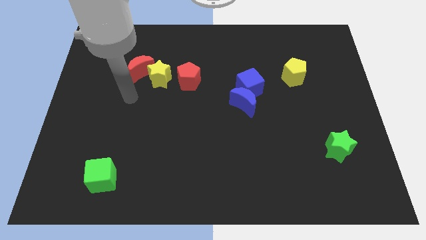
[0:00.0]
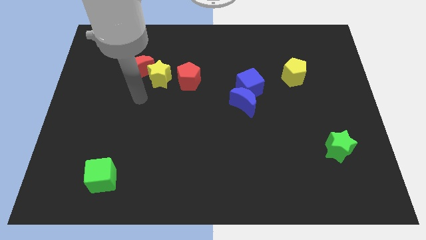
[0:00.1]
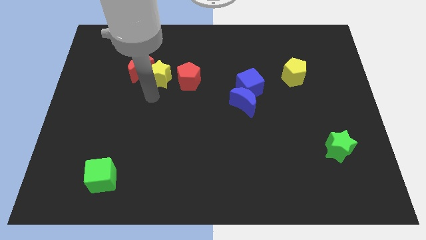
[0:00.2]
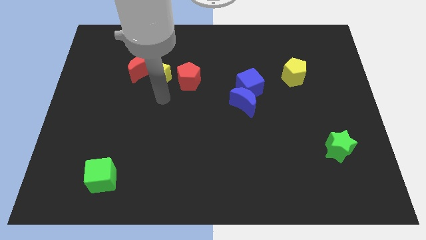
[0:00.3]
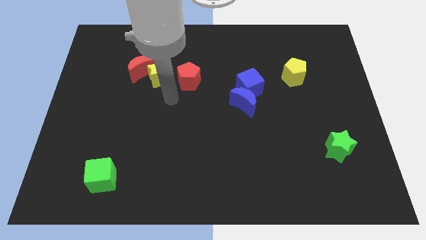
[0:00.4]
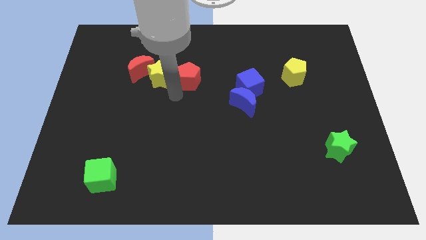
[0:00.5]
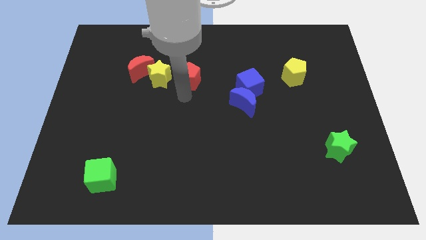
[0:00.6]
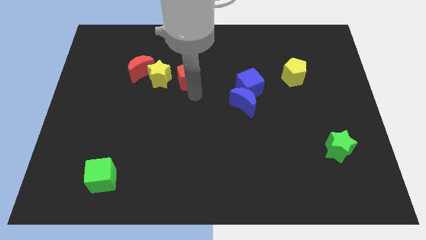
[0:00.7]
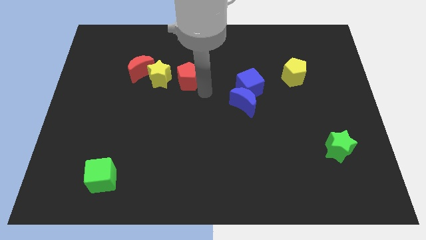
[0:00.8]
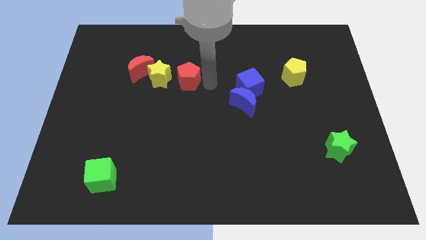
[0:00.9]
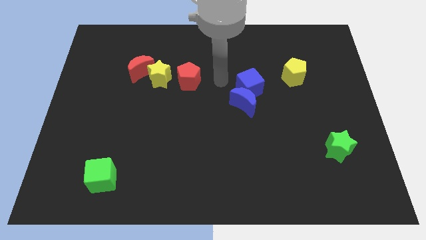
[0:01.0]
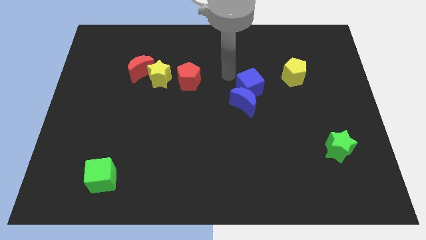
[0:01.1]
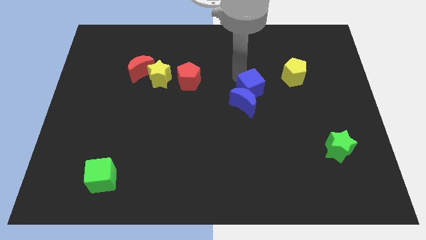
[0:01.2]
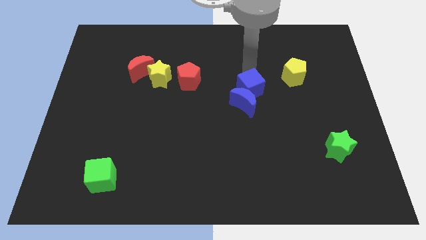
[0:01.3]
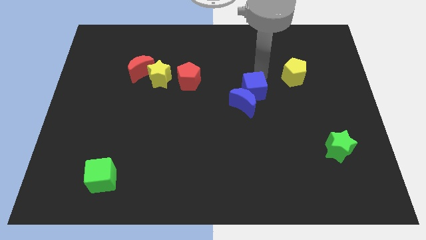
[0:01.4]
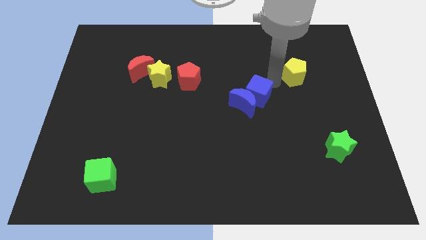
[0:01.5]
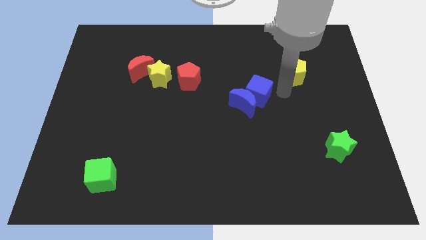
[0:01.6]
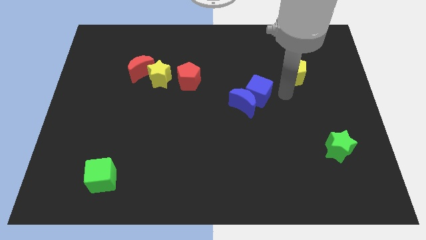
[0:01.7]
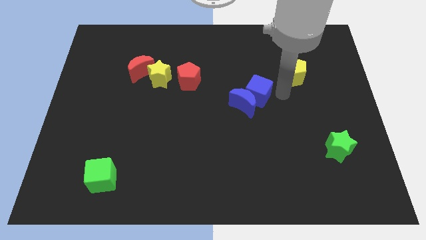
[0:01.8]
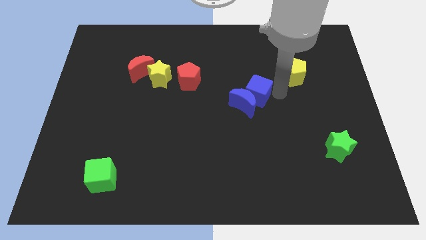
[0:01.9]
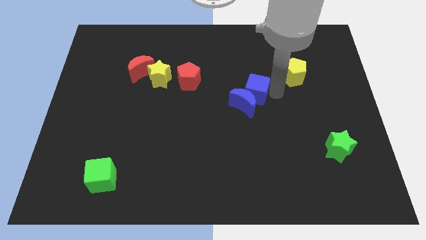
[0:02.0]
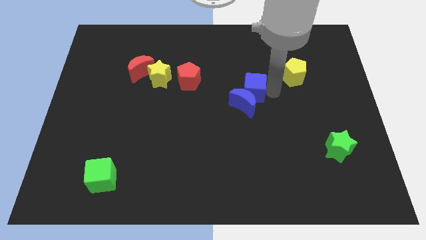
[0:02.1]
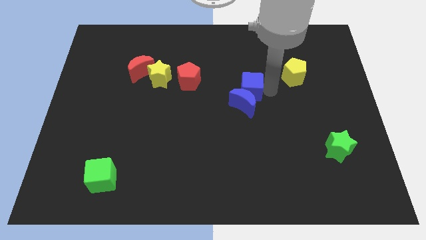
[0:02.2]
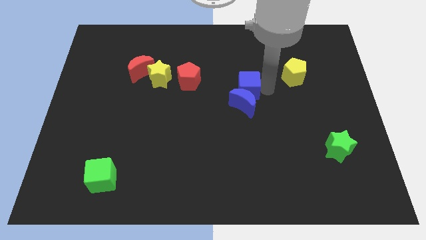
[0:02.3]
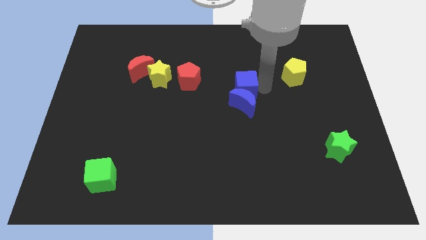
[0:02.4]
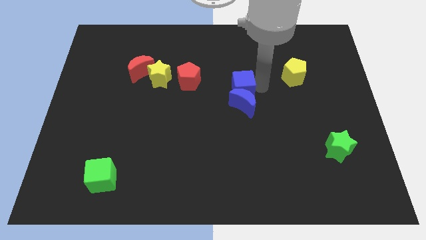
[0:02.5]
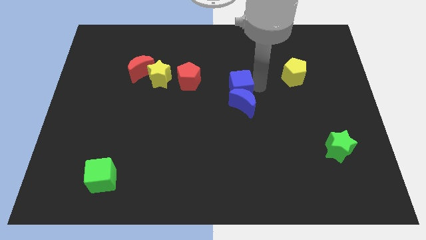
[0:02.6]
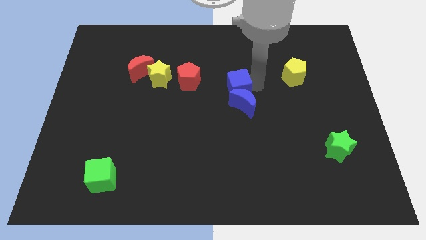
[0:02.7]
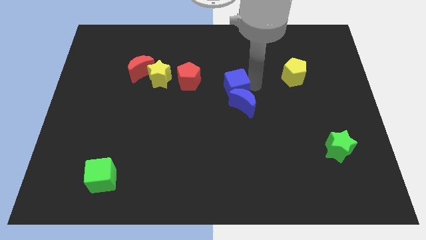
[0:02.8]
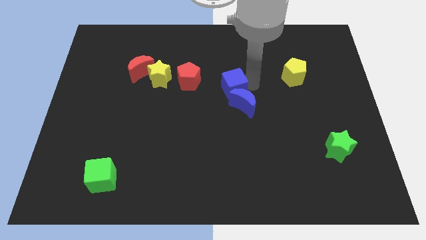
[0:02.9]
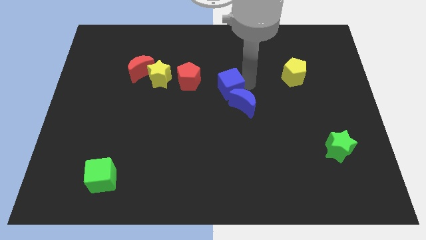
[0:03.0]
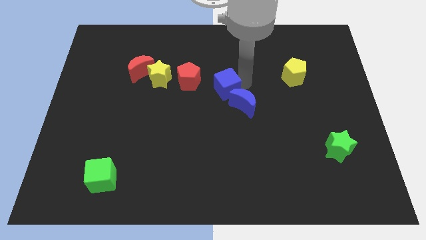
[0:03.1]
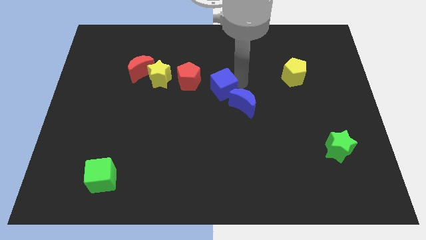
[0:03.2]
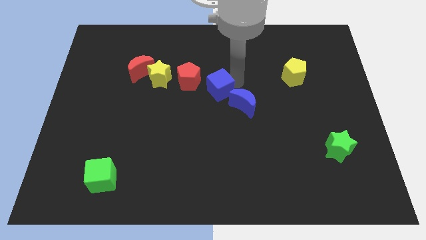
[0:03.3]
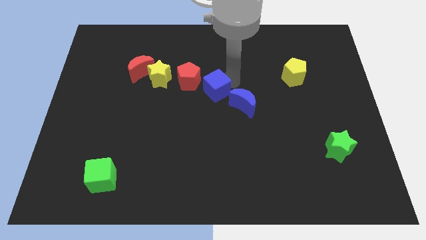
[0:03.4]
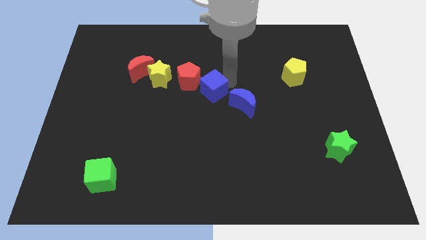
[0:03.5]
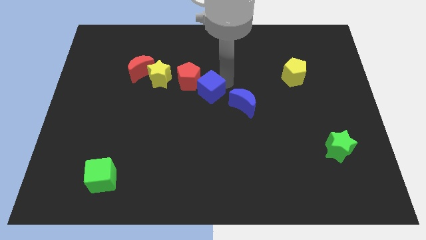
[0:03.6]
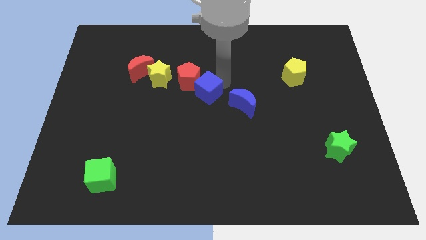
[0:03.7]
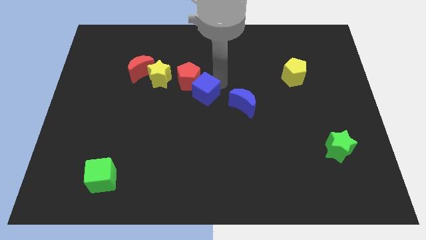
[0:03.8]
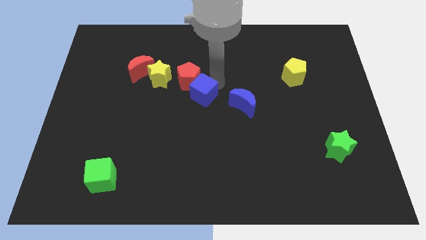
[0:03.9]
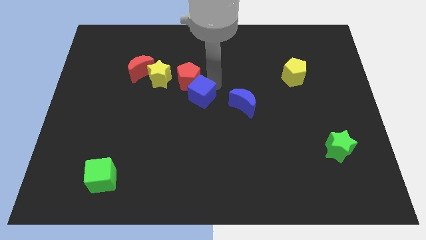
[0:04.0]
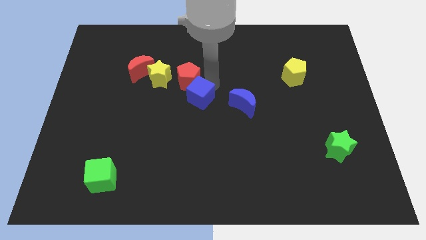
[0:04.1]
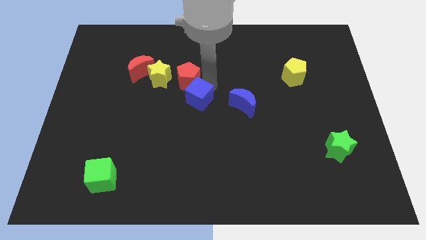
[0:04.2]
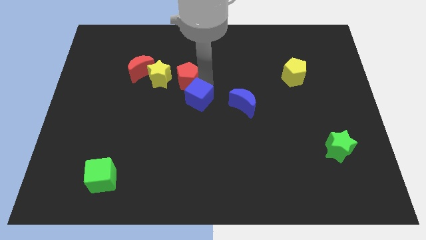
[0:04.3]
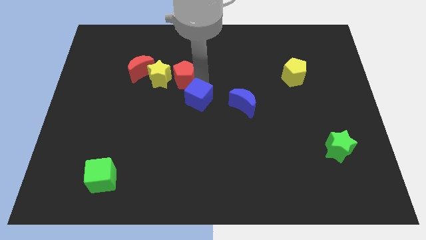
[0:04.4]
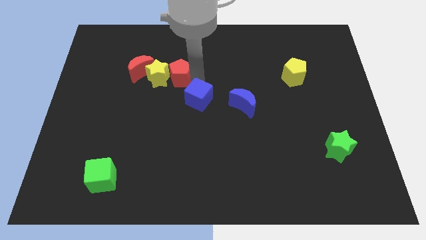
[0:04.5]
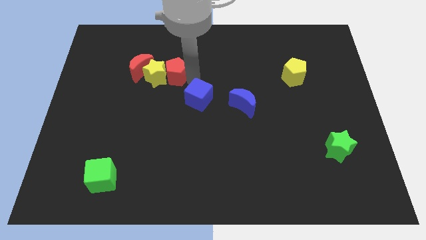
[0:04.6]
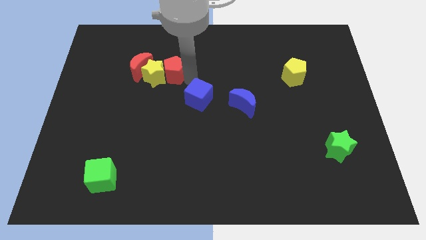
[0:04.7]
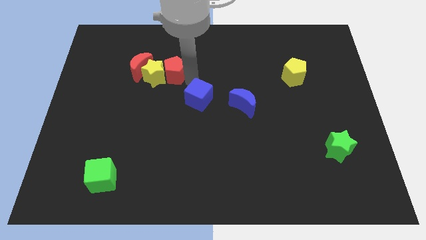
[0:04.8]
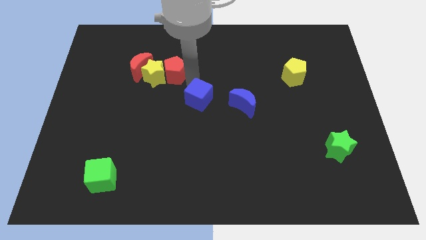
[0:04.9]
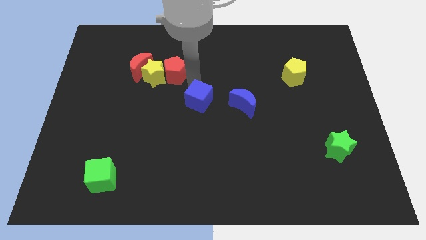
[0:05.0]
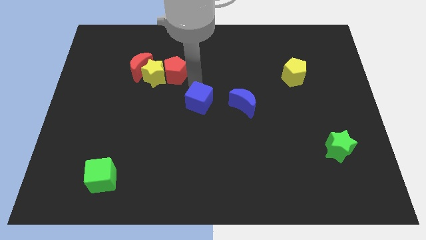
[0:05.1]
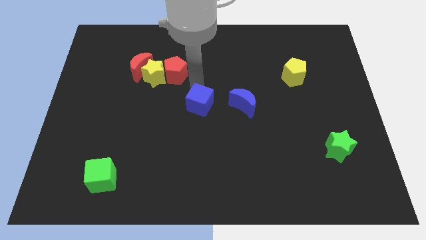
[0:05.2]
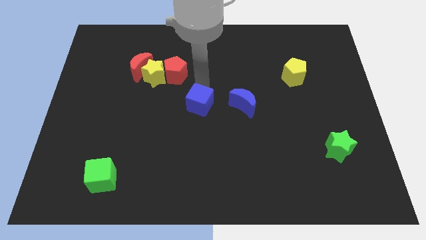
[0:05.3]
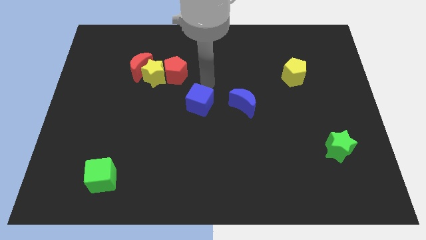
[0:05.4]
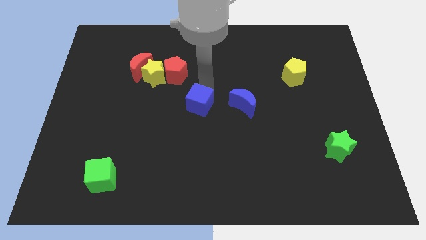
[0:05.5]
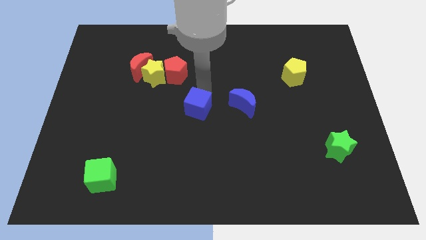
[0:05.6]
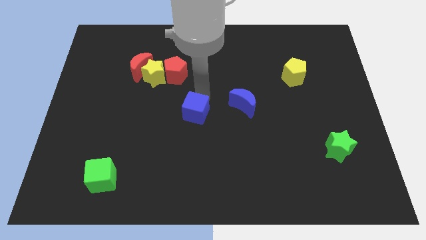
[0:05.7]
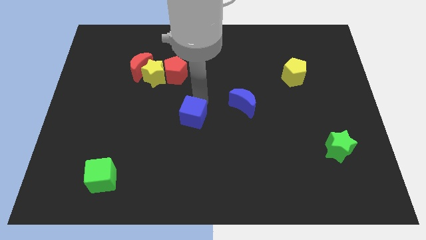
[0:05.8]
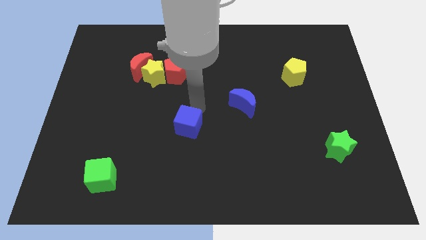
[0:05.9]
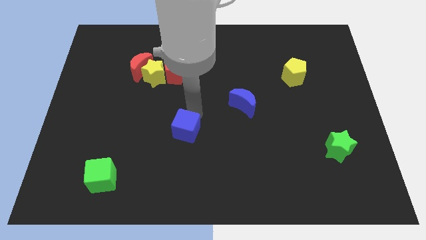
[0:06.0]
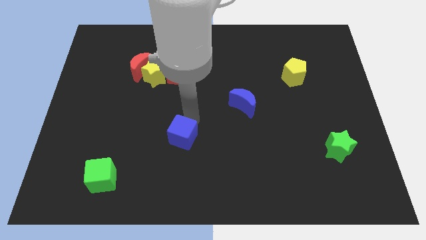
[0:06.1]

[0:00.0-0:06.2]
slide the blue cube diagonally down and left

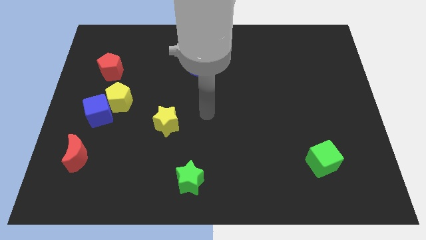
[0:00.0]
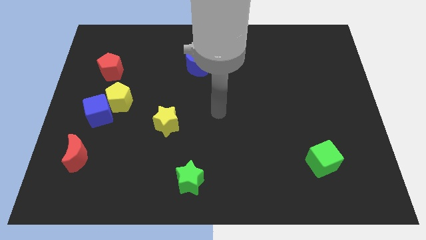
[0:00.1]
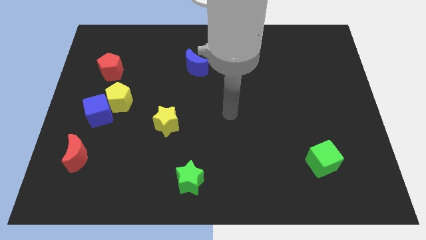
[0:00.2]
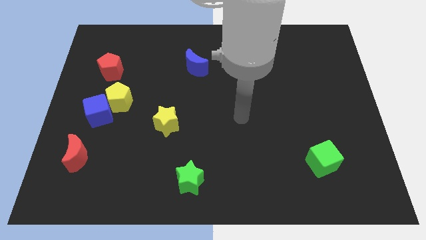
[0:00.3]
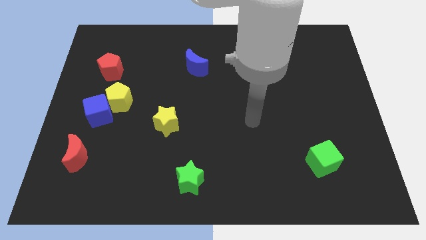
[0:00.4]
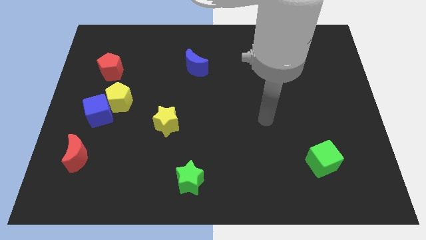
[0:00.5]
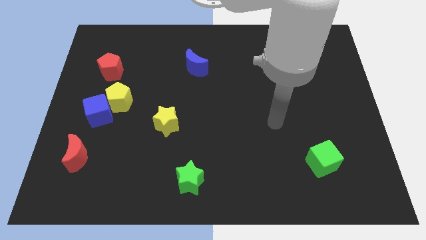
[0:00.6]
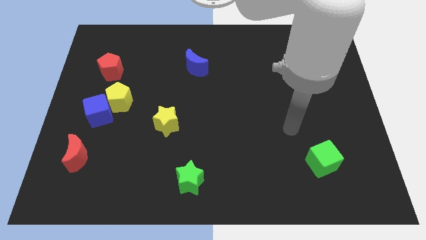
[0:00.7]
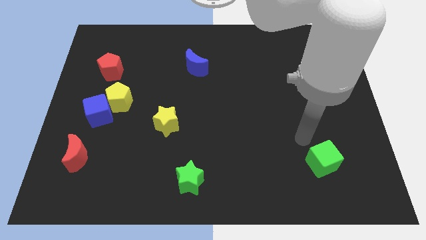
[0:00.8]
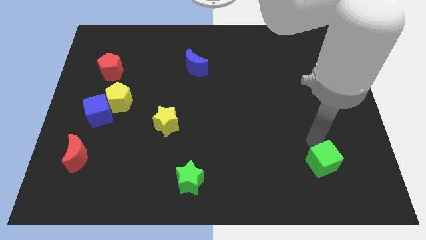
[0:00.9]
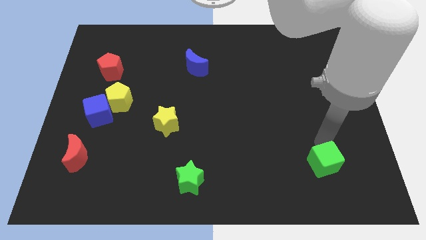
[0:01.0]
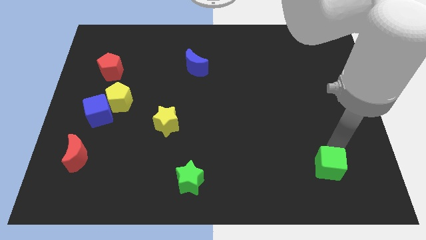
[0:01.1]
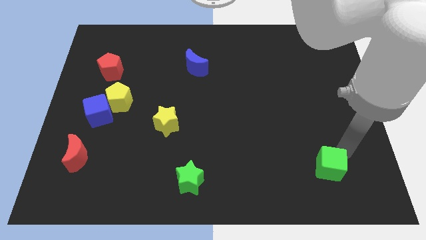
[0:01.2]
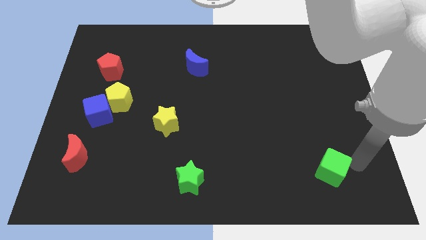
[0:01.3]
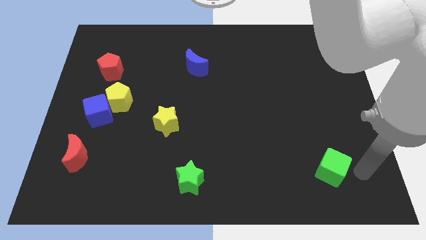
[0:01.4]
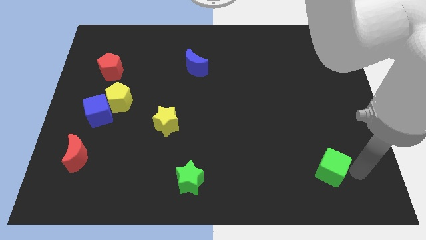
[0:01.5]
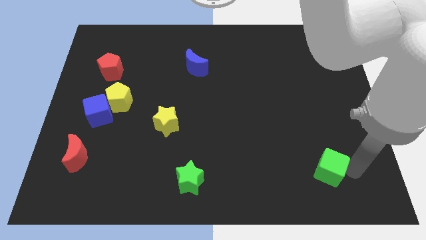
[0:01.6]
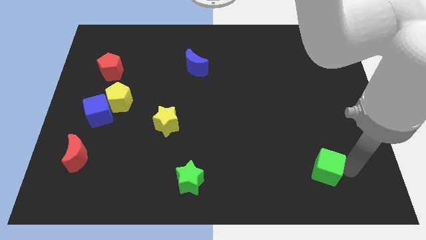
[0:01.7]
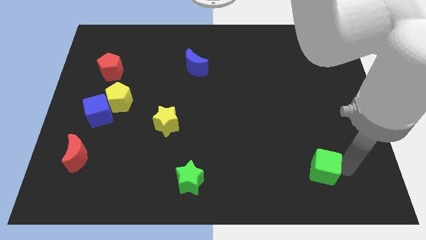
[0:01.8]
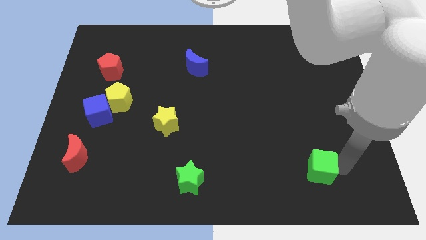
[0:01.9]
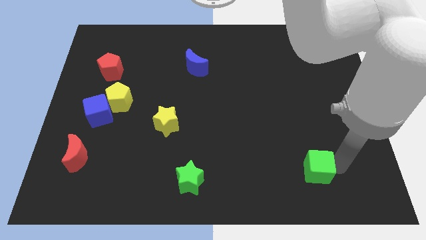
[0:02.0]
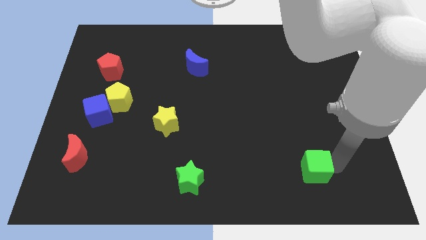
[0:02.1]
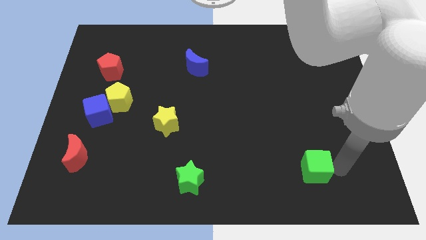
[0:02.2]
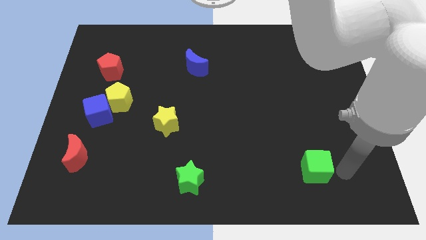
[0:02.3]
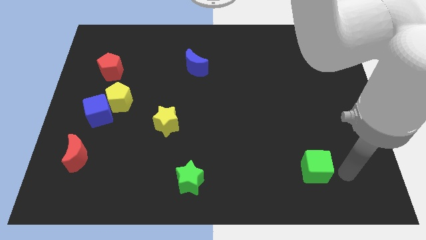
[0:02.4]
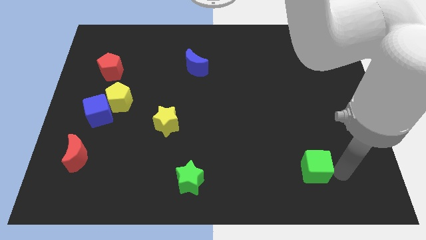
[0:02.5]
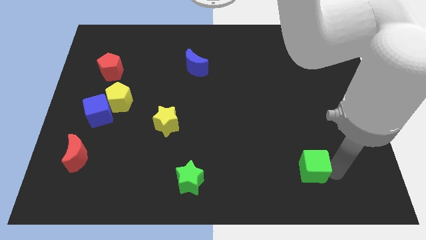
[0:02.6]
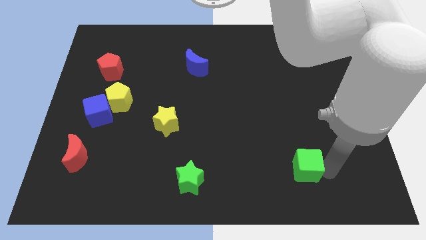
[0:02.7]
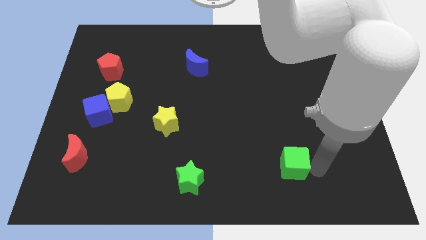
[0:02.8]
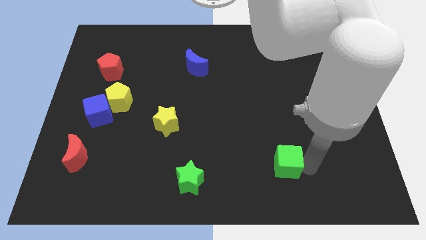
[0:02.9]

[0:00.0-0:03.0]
slightly slide the green cube to the left
